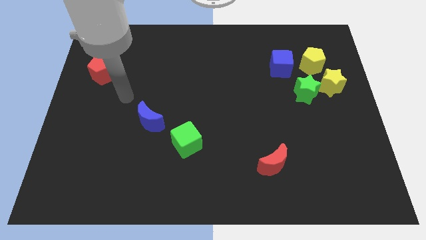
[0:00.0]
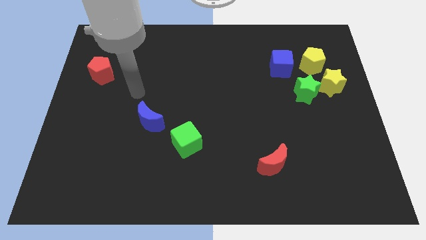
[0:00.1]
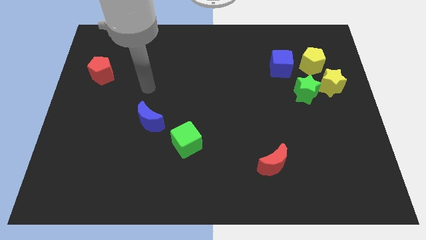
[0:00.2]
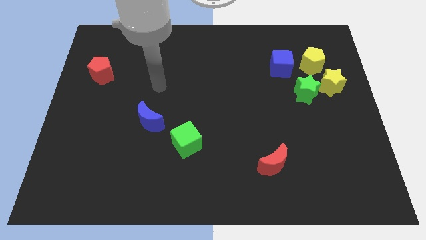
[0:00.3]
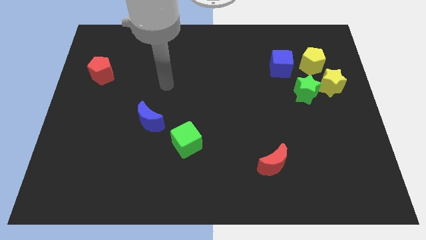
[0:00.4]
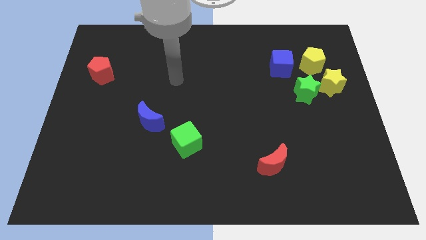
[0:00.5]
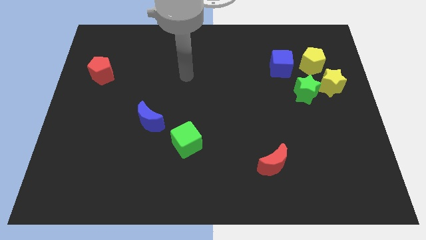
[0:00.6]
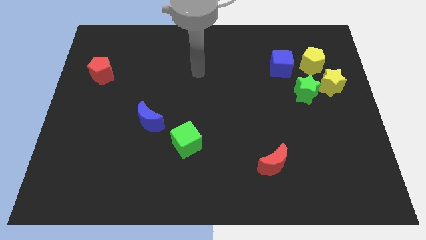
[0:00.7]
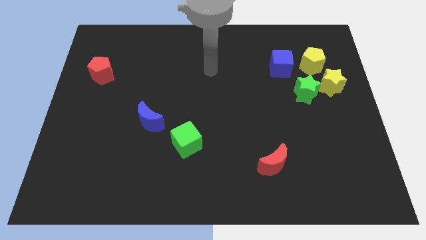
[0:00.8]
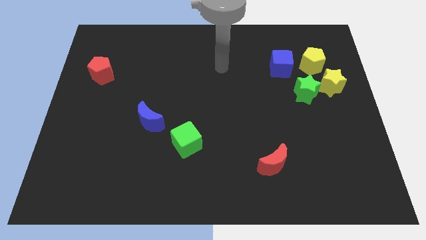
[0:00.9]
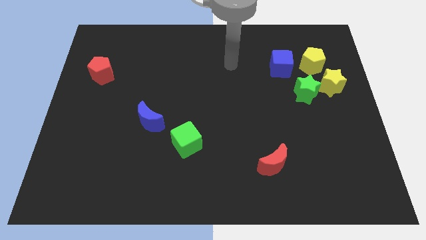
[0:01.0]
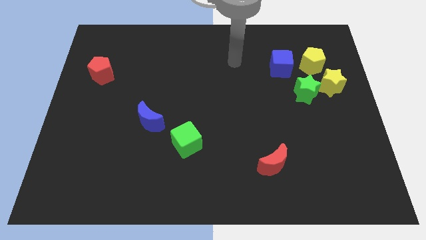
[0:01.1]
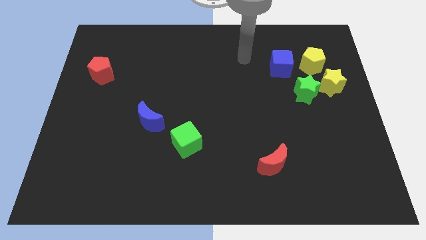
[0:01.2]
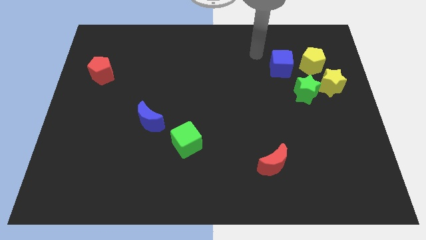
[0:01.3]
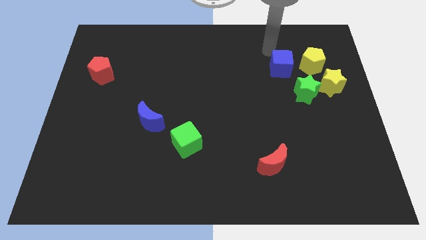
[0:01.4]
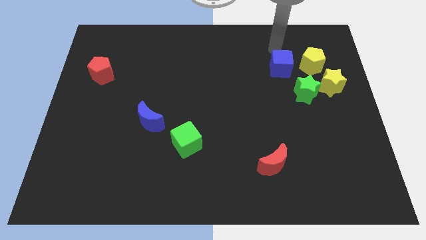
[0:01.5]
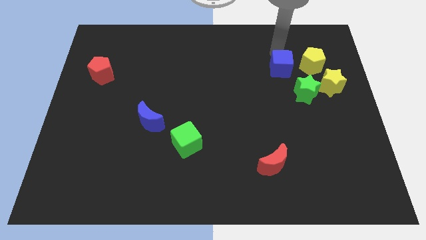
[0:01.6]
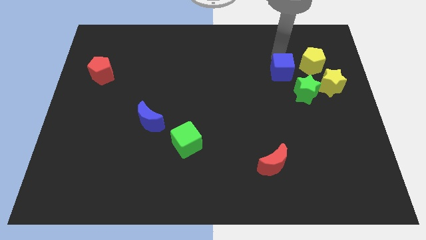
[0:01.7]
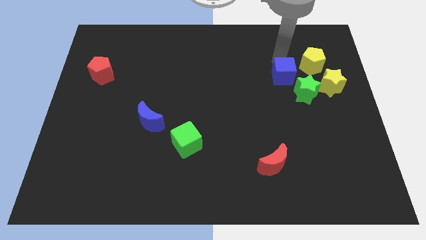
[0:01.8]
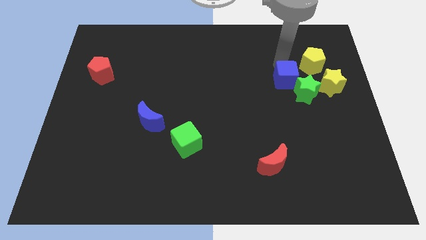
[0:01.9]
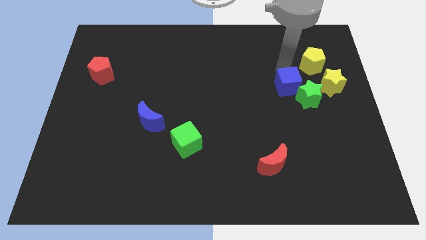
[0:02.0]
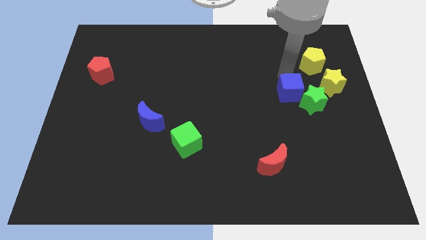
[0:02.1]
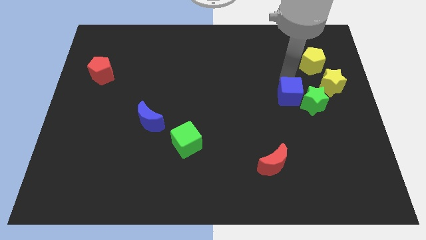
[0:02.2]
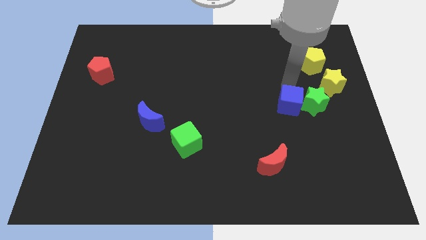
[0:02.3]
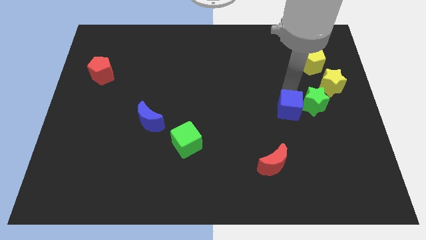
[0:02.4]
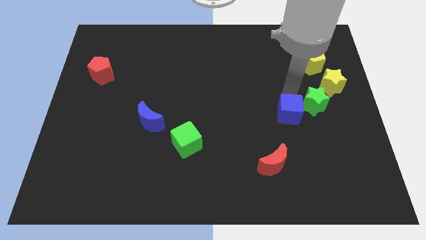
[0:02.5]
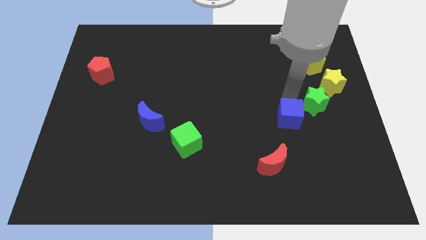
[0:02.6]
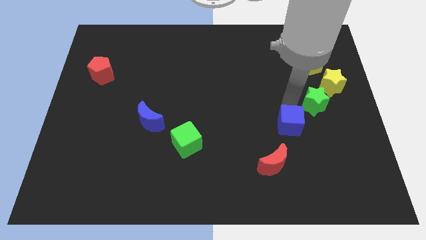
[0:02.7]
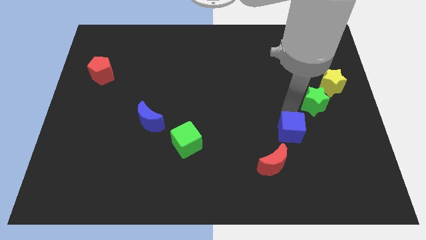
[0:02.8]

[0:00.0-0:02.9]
slide the blue cube down

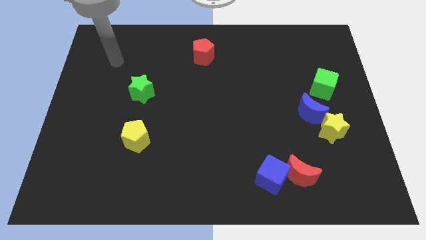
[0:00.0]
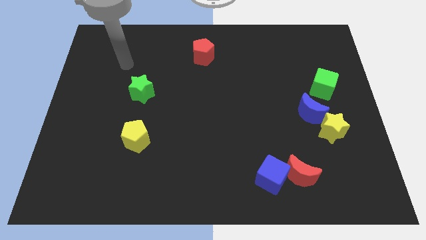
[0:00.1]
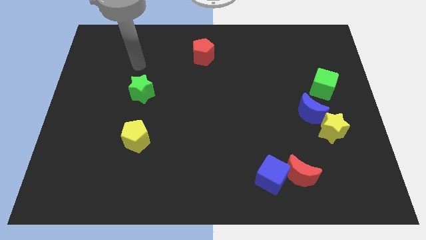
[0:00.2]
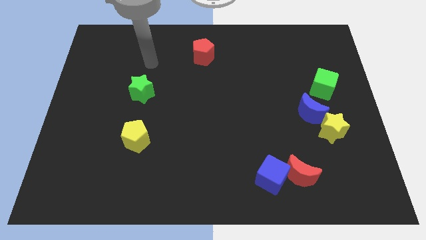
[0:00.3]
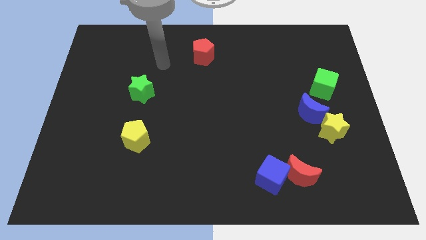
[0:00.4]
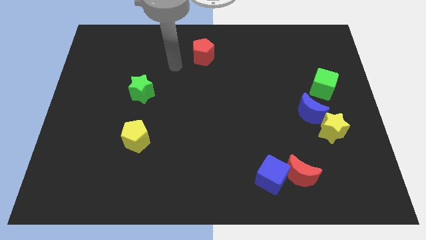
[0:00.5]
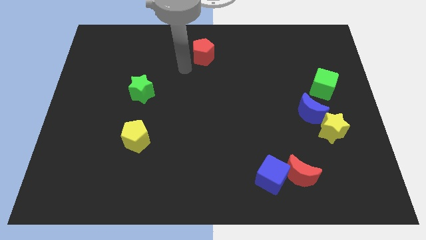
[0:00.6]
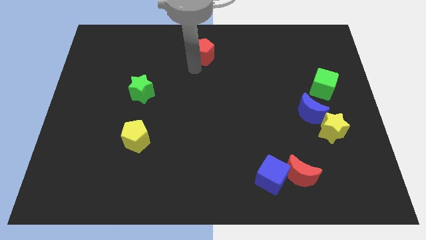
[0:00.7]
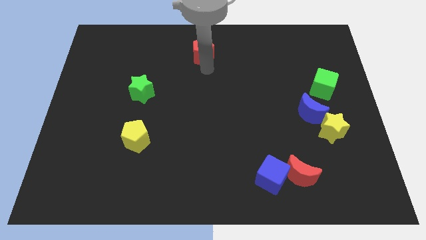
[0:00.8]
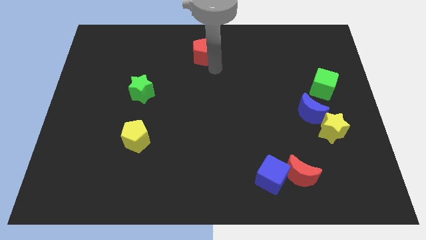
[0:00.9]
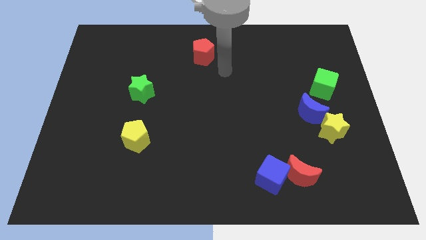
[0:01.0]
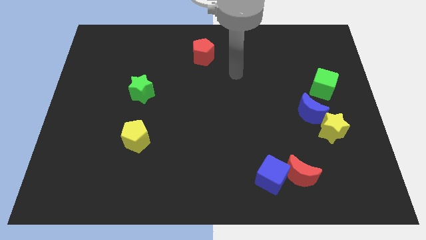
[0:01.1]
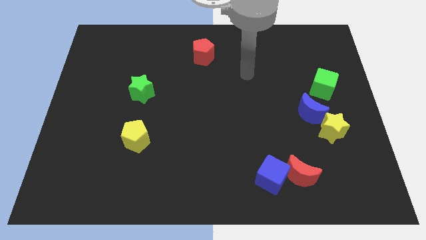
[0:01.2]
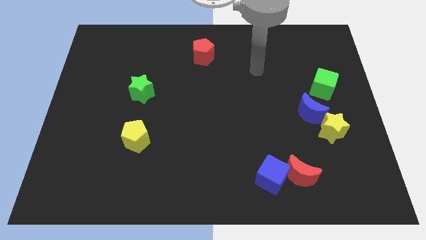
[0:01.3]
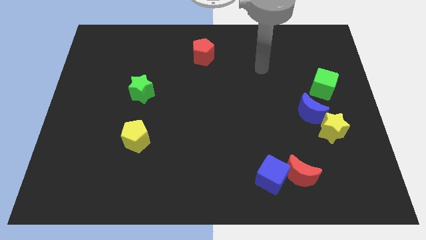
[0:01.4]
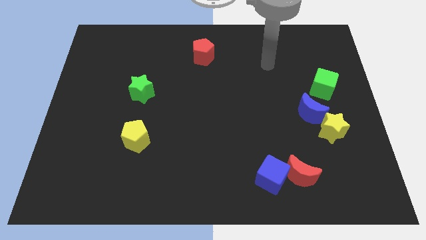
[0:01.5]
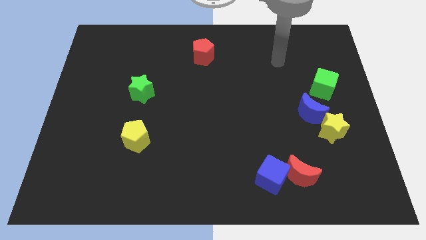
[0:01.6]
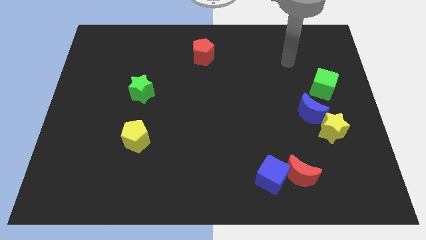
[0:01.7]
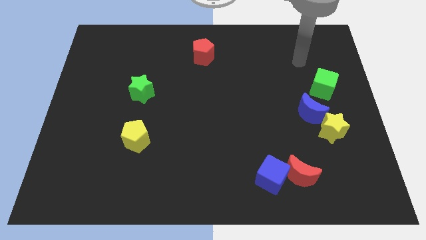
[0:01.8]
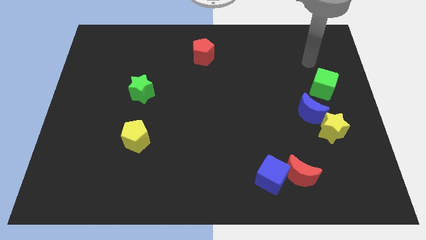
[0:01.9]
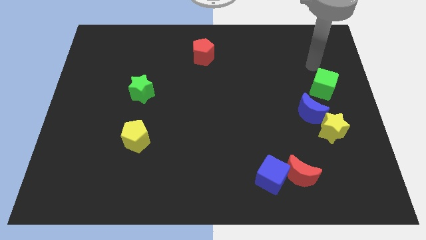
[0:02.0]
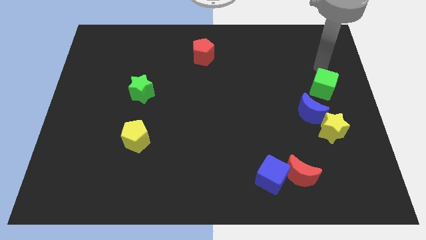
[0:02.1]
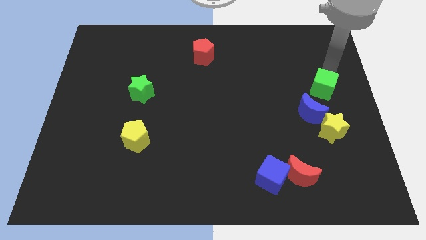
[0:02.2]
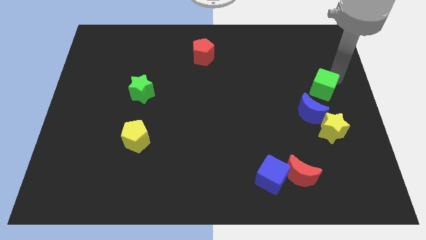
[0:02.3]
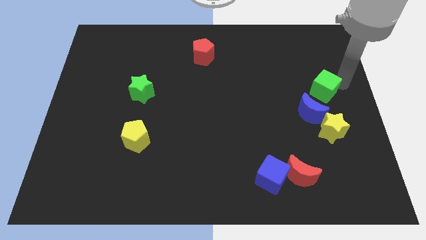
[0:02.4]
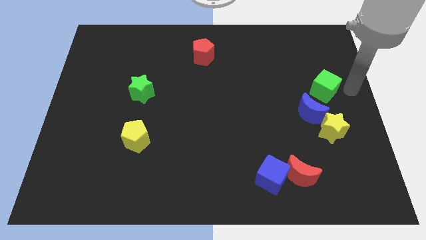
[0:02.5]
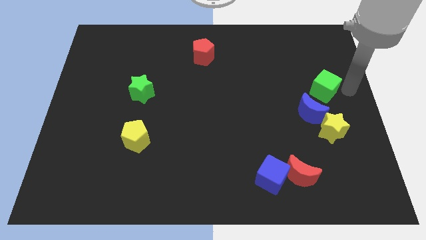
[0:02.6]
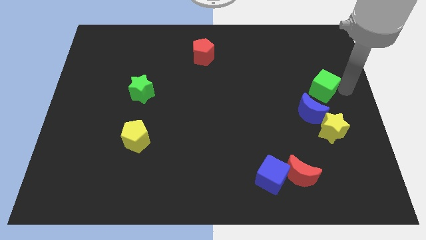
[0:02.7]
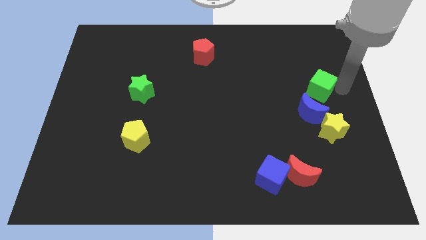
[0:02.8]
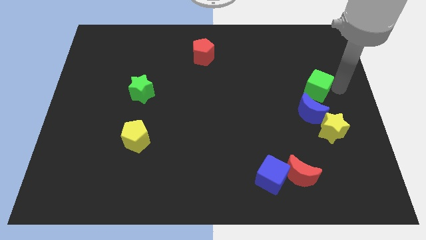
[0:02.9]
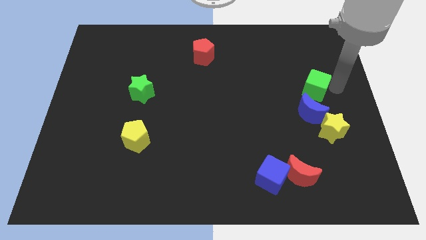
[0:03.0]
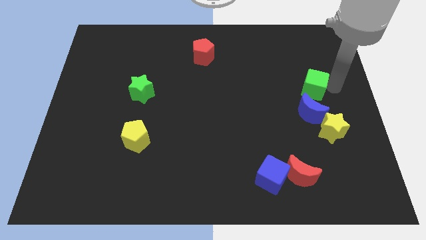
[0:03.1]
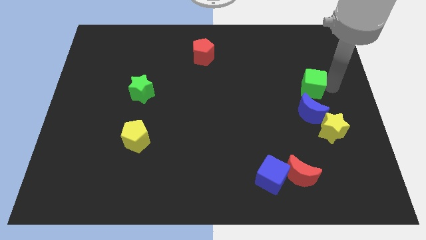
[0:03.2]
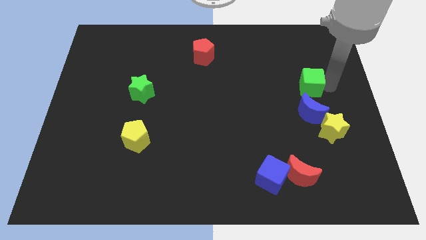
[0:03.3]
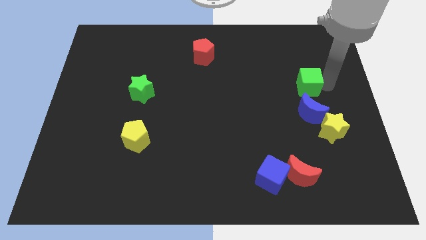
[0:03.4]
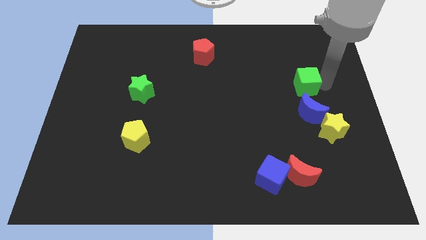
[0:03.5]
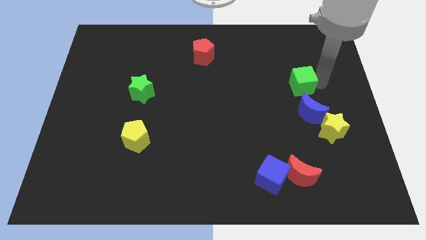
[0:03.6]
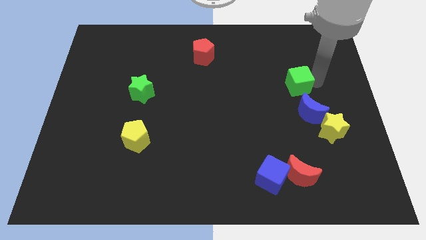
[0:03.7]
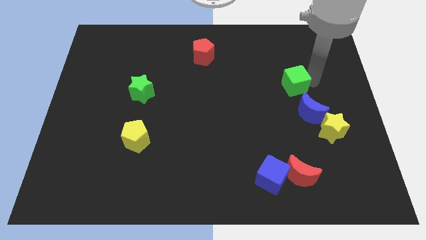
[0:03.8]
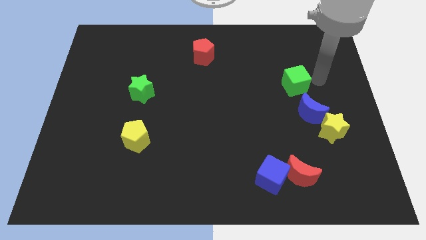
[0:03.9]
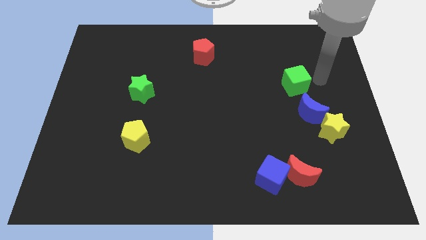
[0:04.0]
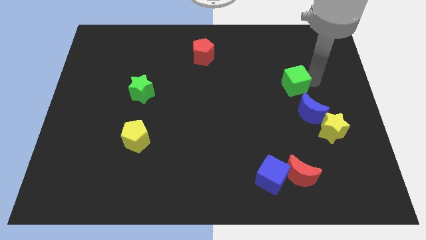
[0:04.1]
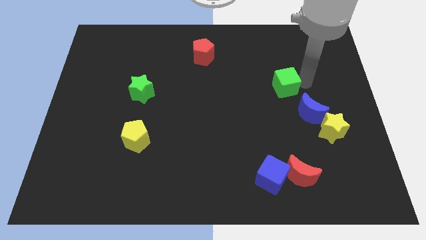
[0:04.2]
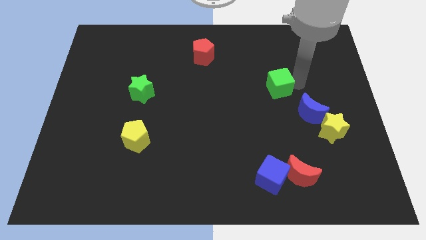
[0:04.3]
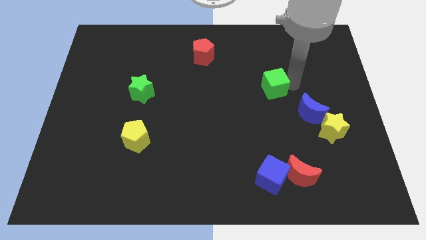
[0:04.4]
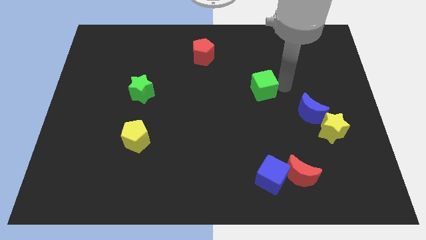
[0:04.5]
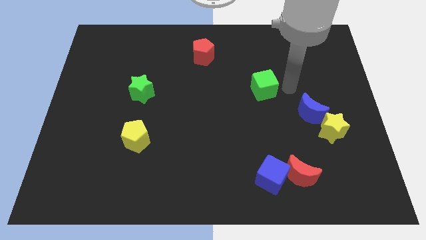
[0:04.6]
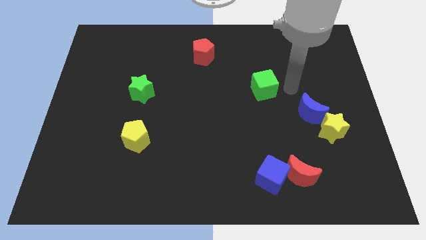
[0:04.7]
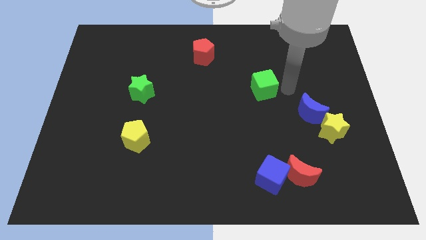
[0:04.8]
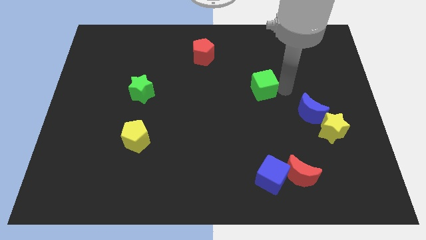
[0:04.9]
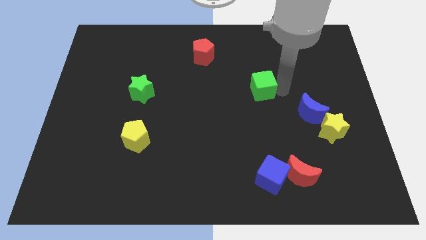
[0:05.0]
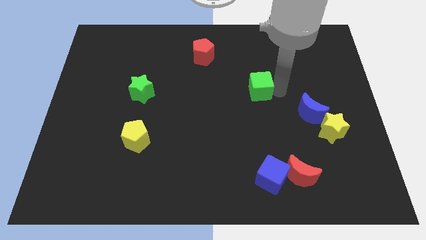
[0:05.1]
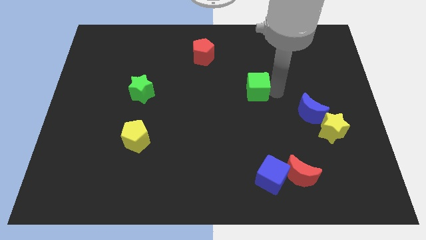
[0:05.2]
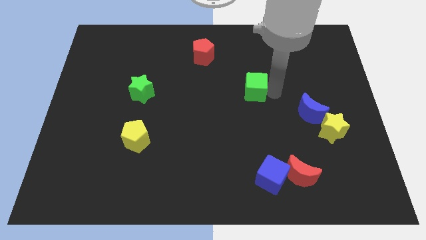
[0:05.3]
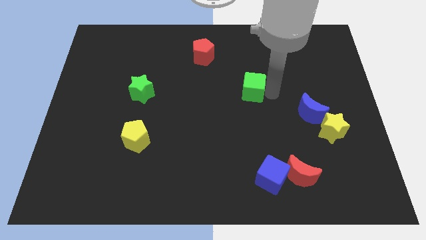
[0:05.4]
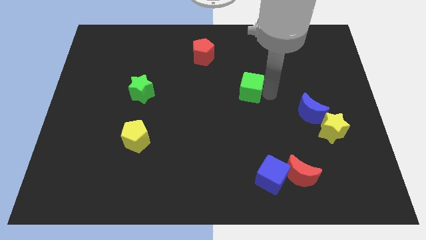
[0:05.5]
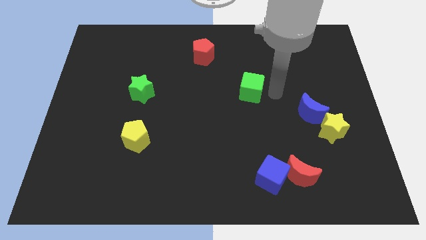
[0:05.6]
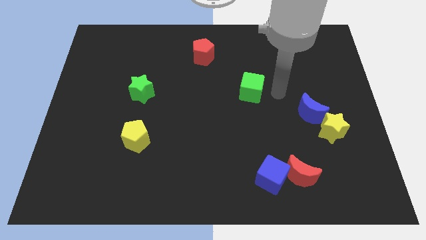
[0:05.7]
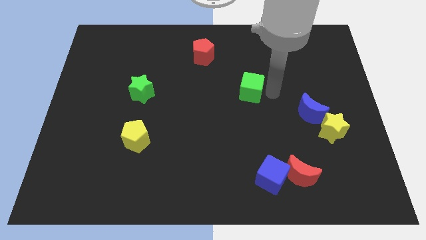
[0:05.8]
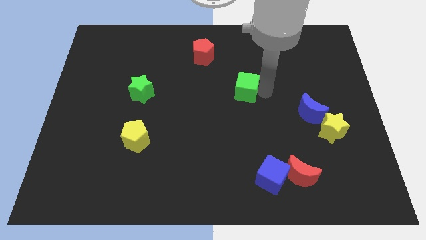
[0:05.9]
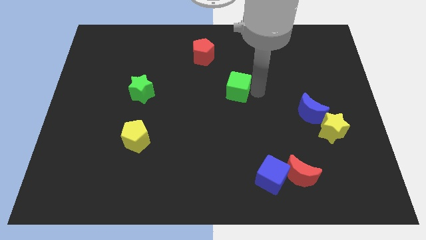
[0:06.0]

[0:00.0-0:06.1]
move the green cube left
